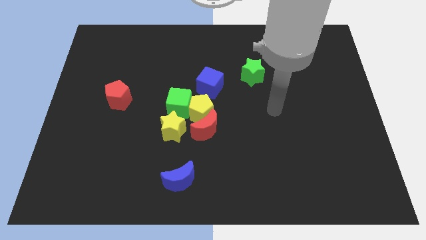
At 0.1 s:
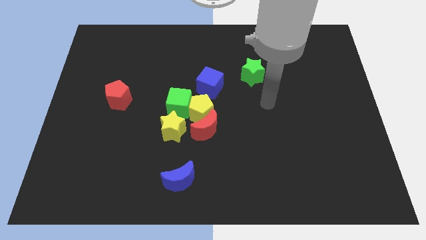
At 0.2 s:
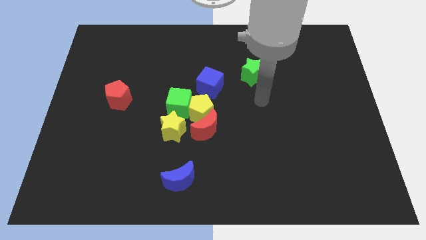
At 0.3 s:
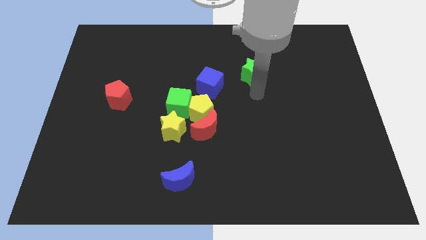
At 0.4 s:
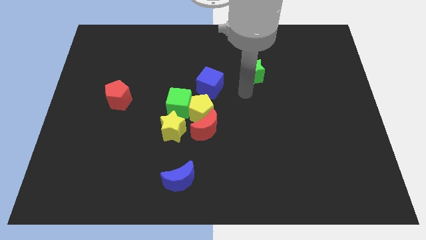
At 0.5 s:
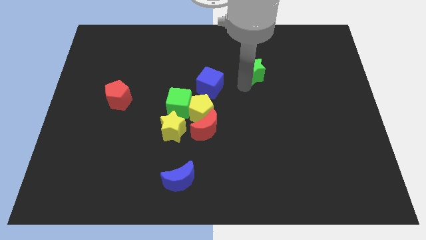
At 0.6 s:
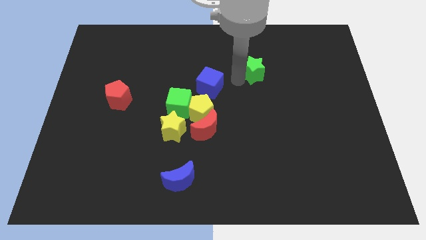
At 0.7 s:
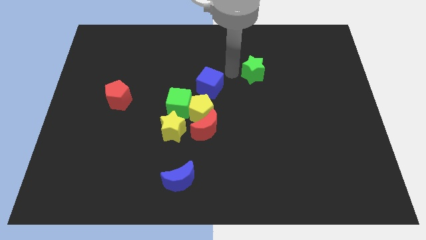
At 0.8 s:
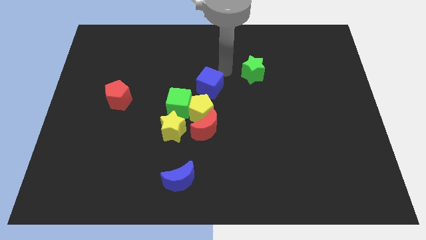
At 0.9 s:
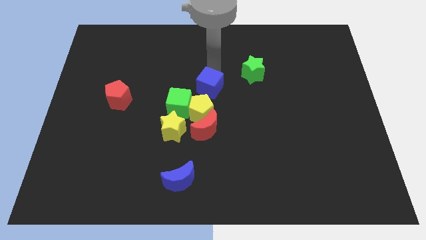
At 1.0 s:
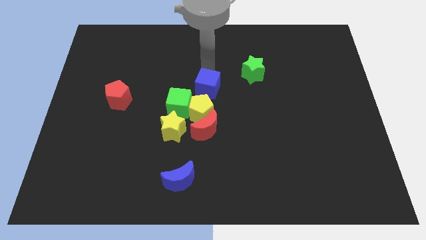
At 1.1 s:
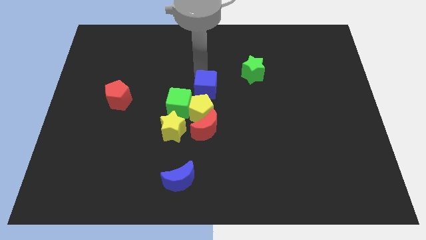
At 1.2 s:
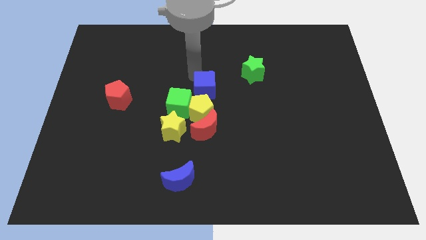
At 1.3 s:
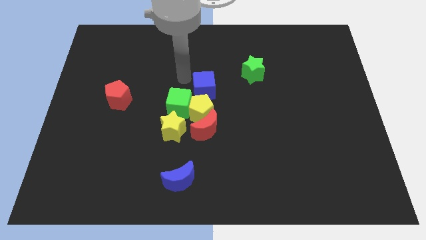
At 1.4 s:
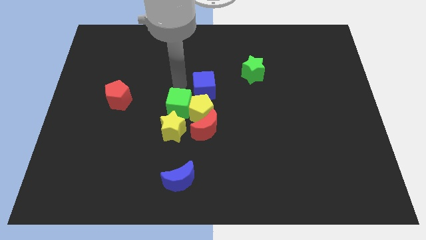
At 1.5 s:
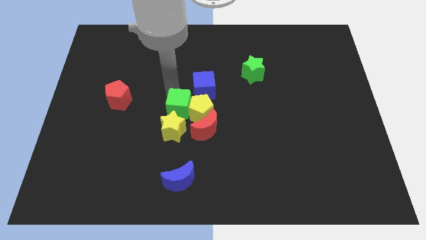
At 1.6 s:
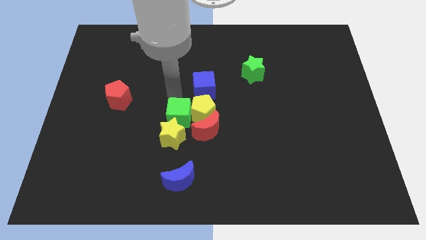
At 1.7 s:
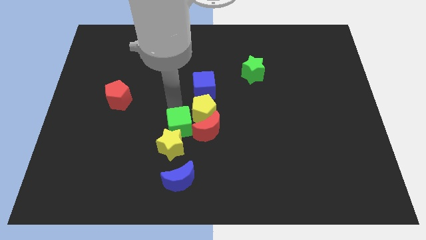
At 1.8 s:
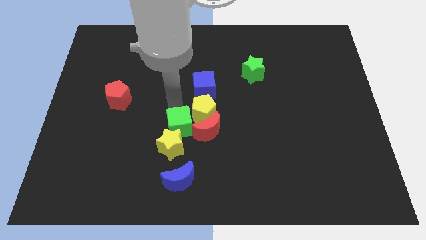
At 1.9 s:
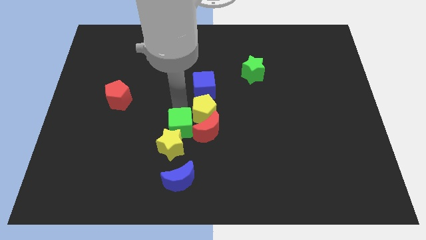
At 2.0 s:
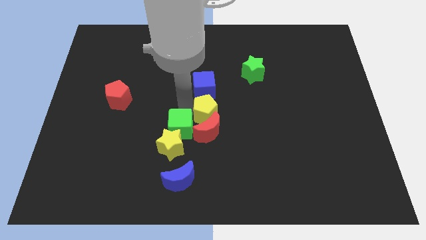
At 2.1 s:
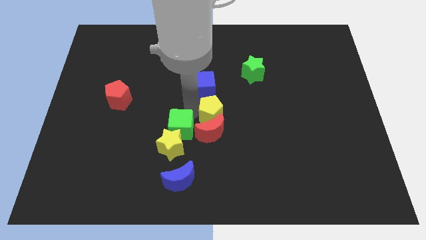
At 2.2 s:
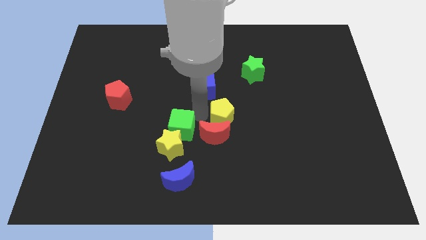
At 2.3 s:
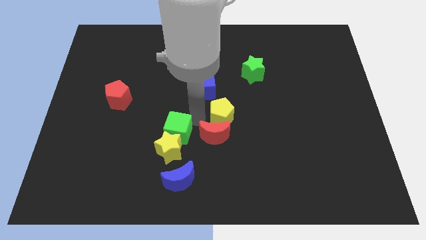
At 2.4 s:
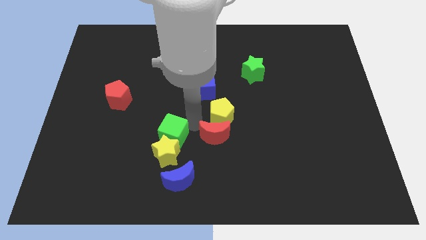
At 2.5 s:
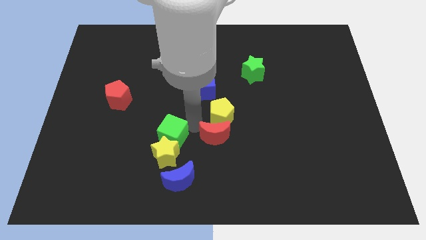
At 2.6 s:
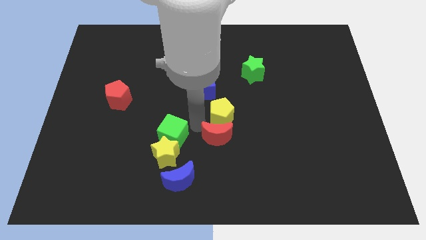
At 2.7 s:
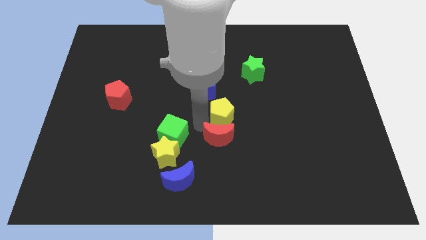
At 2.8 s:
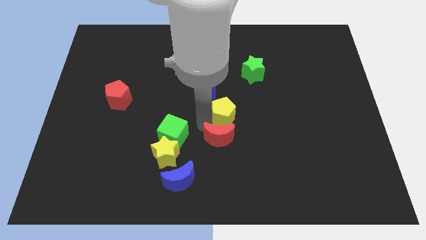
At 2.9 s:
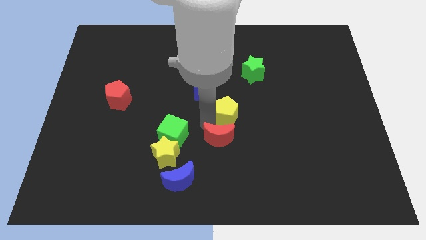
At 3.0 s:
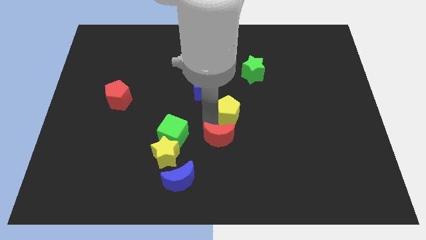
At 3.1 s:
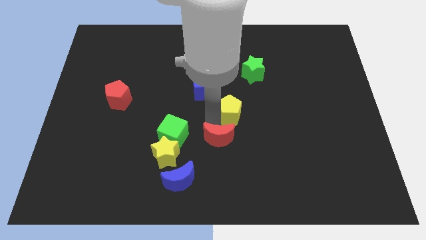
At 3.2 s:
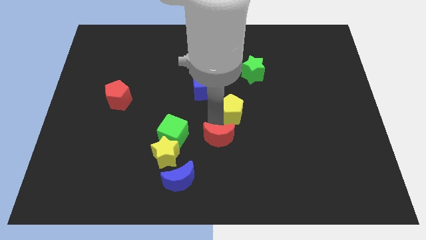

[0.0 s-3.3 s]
move the yellow pentagon away from the clump

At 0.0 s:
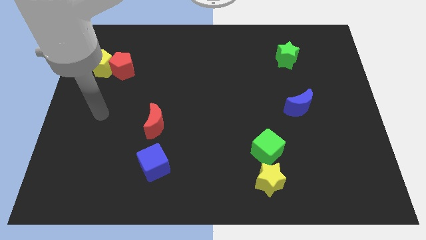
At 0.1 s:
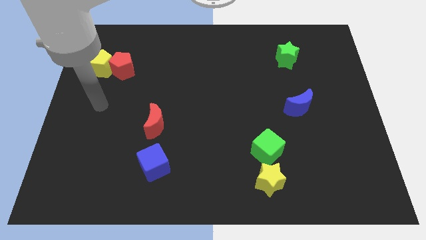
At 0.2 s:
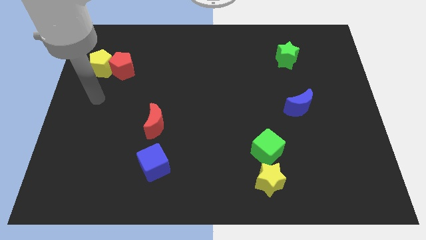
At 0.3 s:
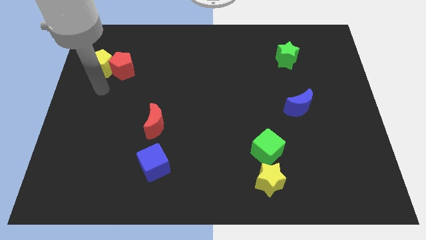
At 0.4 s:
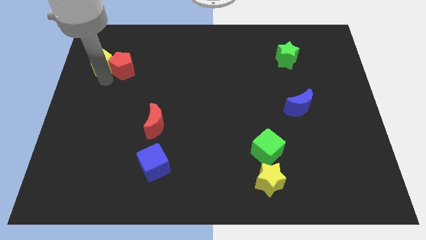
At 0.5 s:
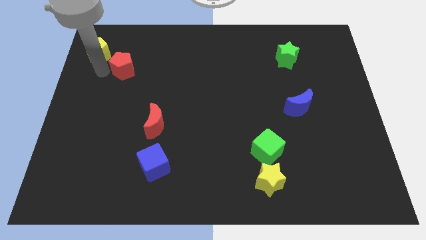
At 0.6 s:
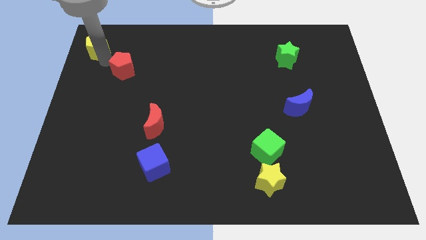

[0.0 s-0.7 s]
pull the red pentagon apart from the yellow pentagon

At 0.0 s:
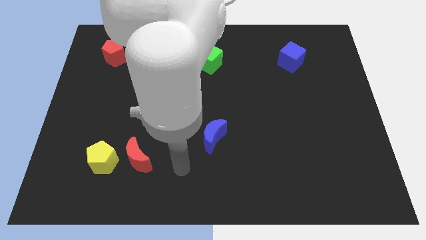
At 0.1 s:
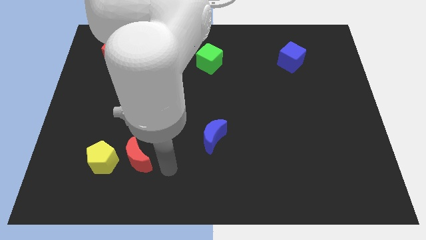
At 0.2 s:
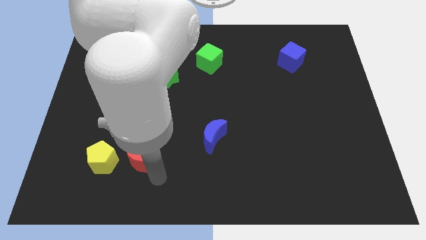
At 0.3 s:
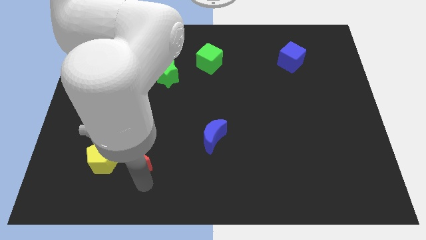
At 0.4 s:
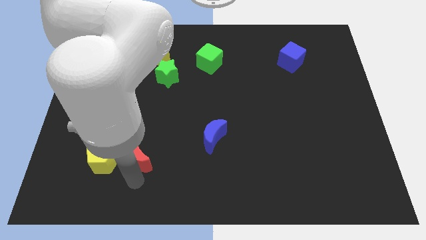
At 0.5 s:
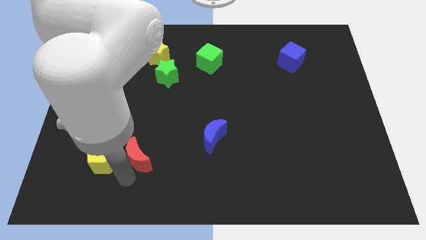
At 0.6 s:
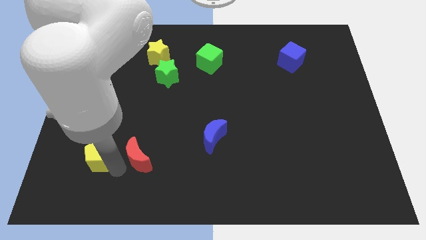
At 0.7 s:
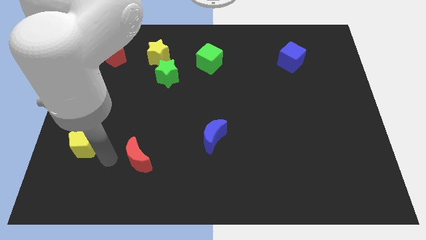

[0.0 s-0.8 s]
separate the red moon from the yellow pentagon

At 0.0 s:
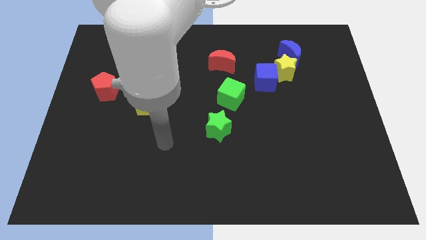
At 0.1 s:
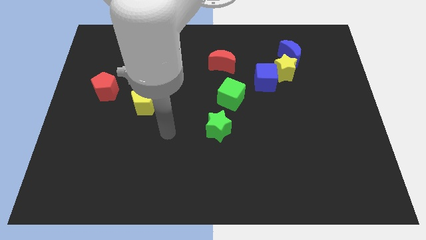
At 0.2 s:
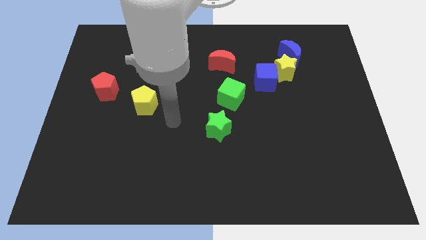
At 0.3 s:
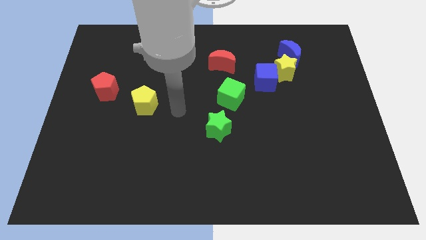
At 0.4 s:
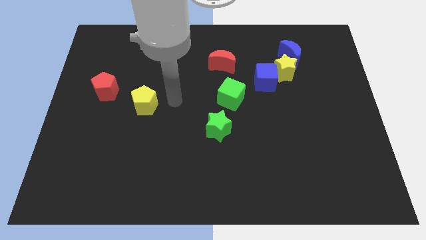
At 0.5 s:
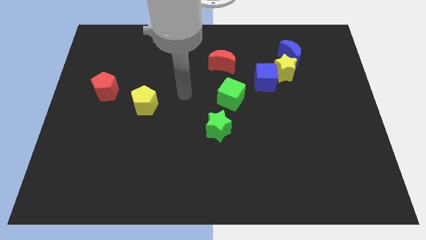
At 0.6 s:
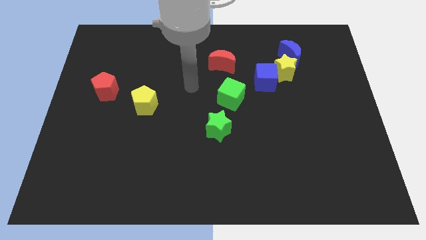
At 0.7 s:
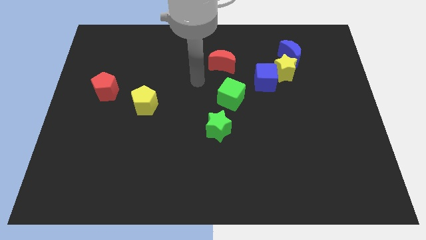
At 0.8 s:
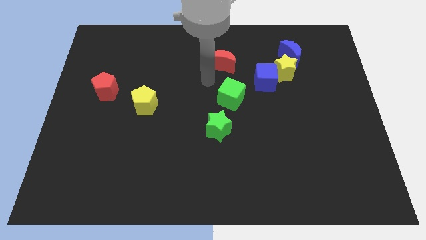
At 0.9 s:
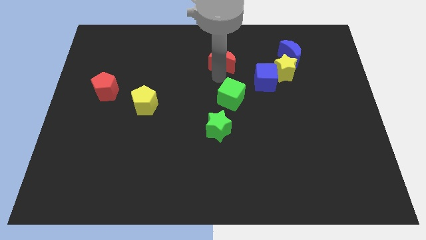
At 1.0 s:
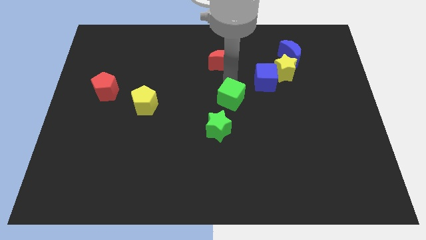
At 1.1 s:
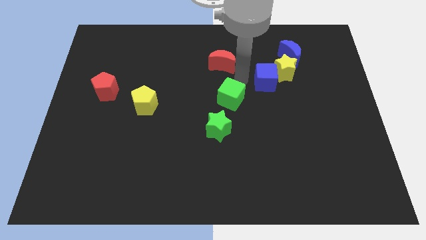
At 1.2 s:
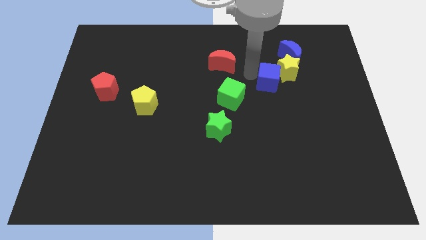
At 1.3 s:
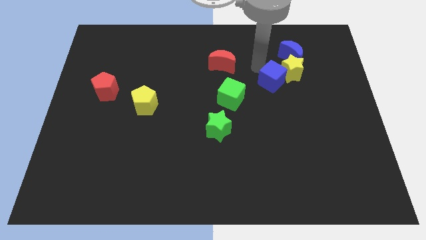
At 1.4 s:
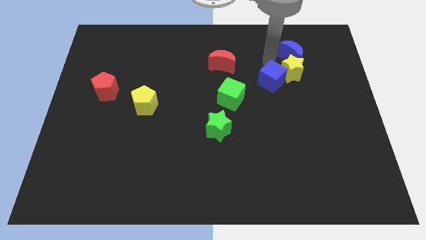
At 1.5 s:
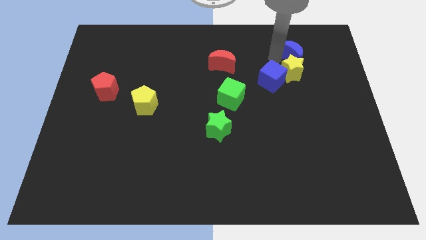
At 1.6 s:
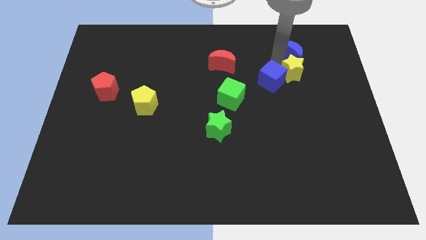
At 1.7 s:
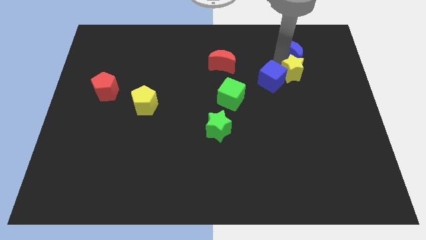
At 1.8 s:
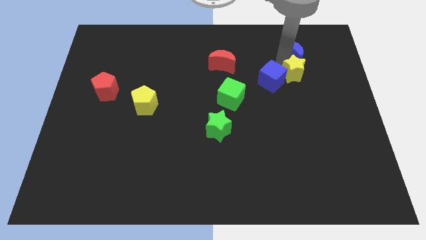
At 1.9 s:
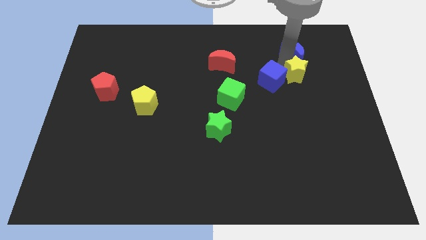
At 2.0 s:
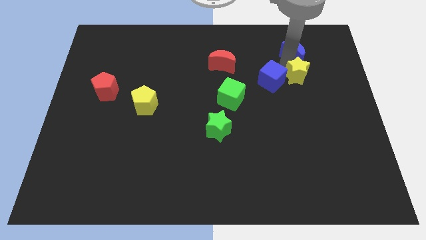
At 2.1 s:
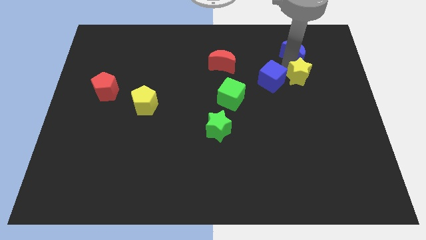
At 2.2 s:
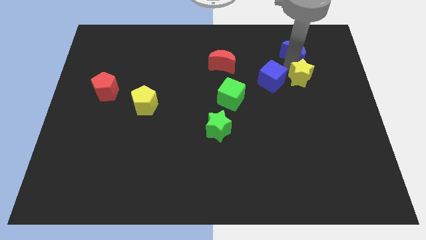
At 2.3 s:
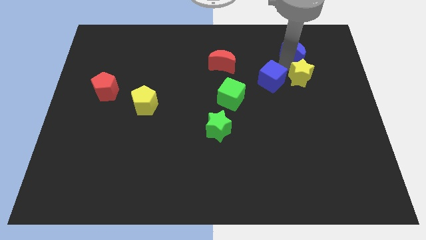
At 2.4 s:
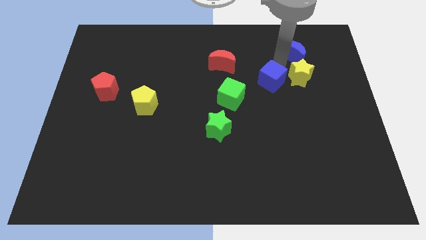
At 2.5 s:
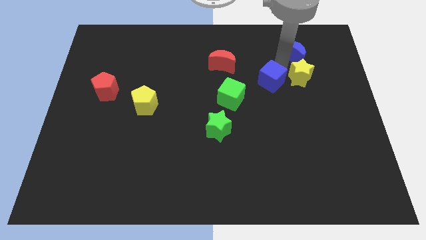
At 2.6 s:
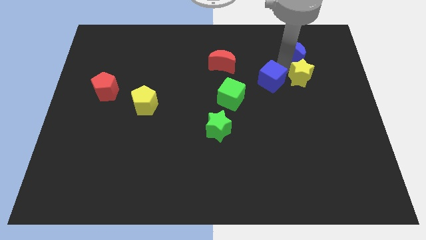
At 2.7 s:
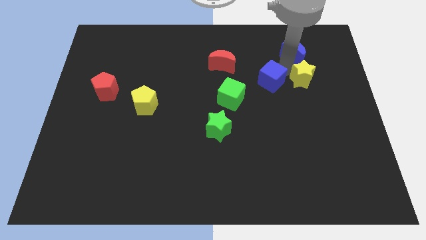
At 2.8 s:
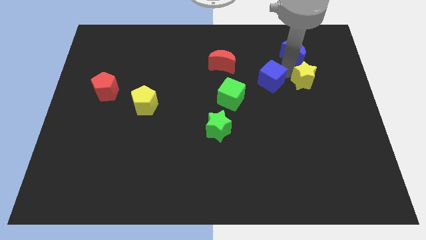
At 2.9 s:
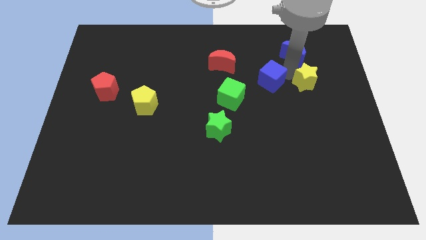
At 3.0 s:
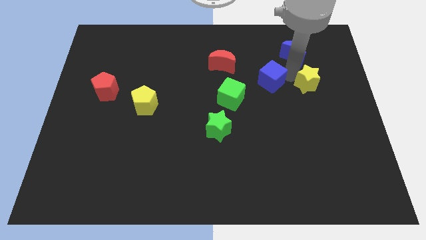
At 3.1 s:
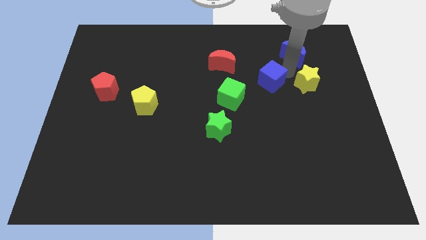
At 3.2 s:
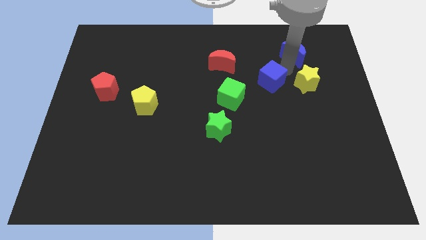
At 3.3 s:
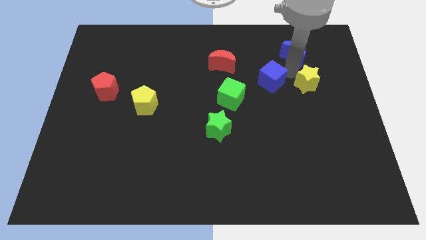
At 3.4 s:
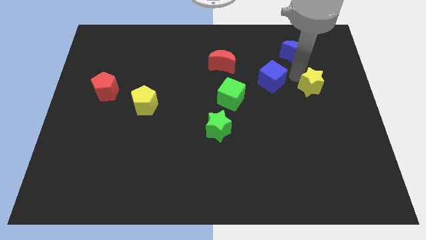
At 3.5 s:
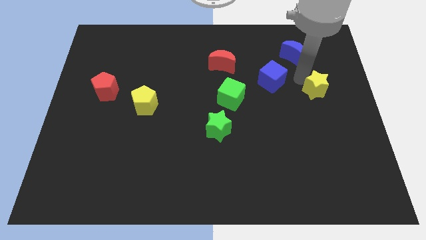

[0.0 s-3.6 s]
separate the yellow star from the blue cube and blue moon

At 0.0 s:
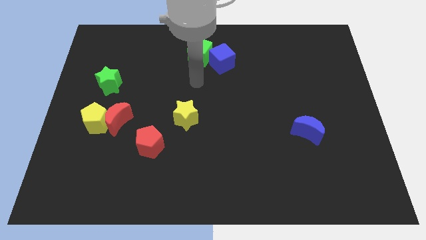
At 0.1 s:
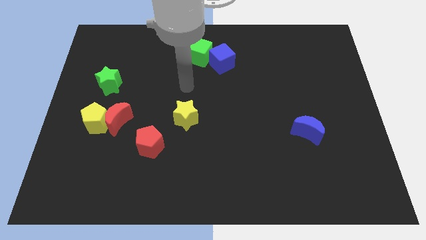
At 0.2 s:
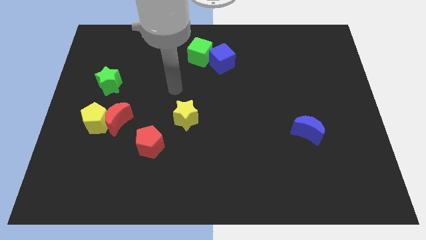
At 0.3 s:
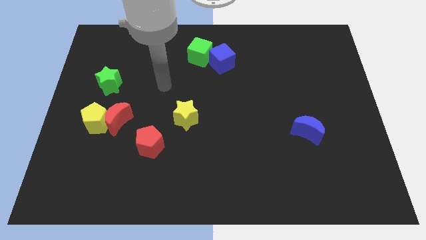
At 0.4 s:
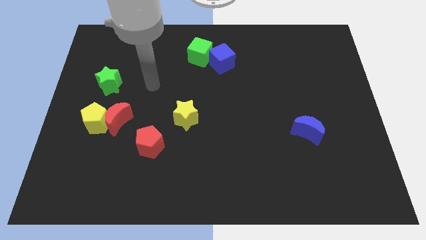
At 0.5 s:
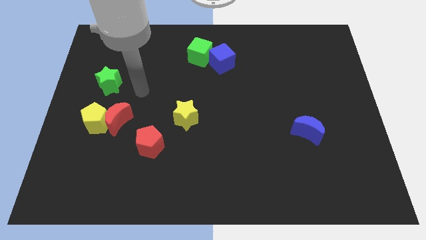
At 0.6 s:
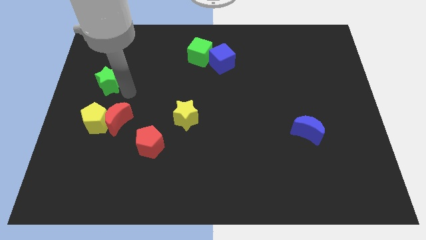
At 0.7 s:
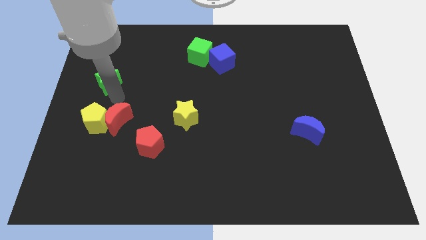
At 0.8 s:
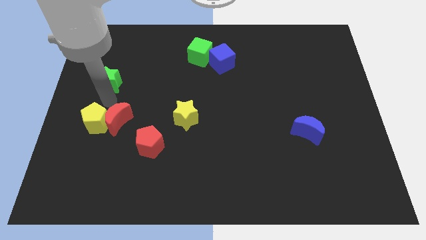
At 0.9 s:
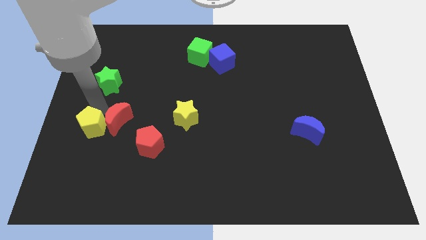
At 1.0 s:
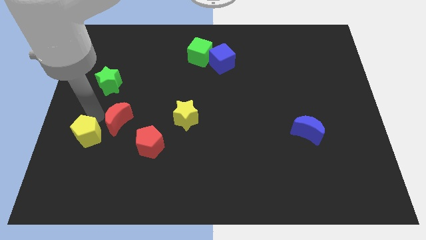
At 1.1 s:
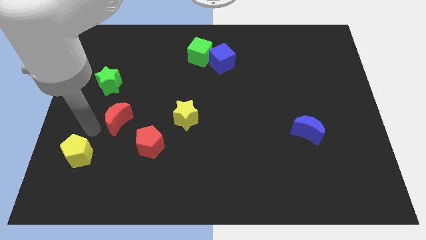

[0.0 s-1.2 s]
pull the red moon apart from the yellow pentagon
